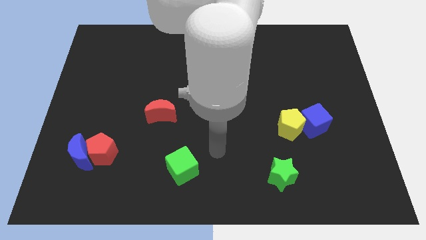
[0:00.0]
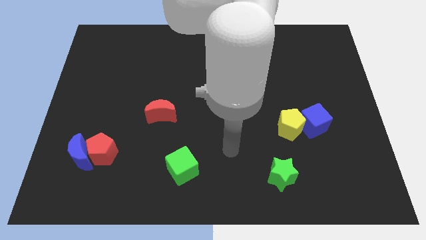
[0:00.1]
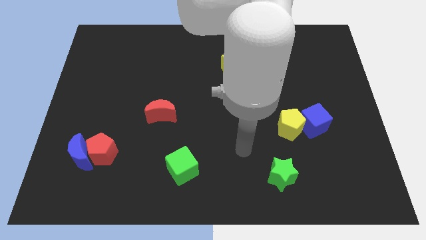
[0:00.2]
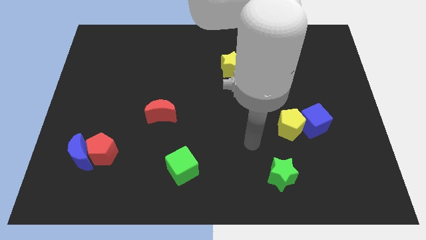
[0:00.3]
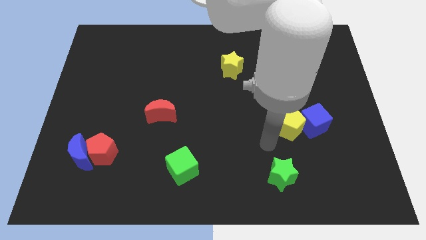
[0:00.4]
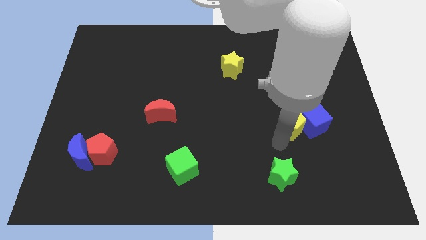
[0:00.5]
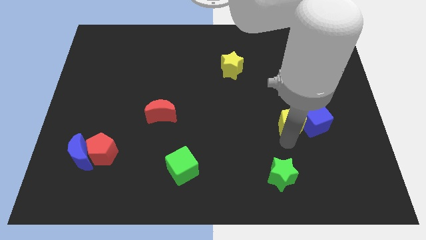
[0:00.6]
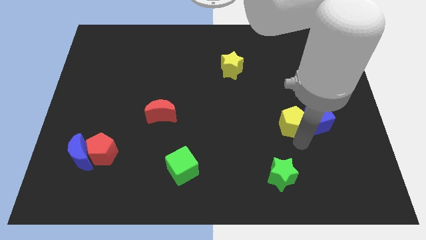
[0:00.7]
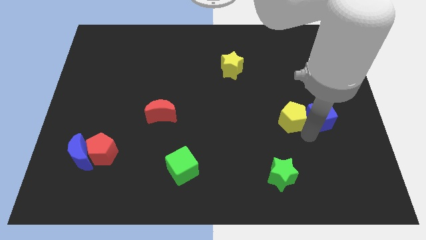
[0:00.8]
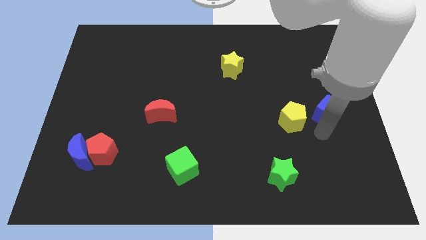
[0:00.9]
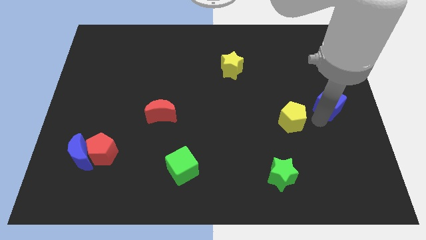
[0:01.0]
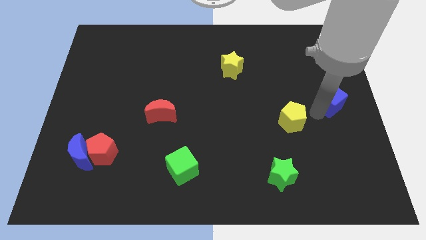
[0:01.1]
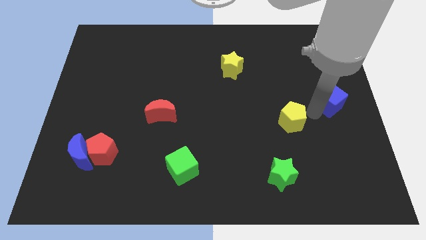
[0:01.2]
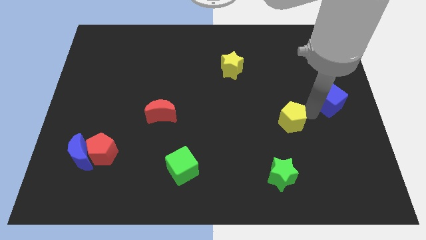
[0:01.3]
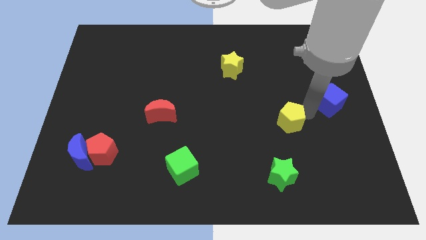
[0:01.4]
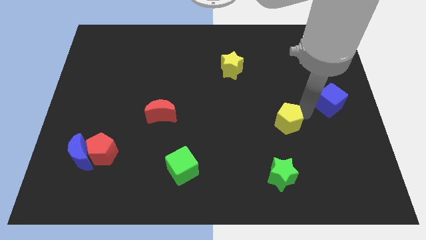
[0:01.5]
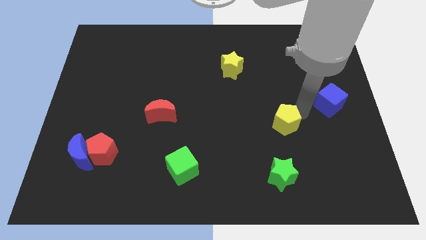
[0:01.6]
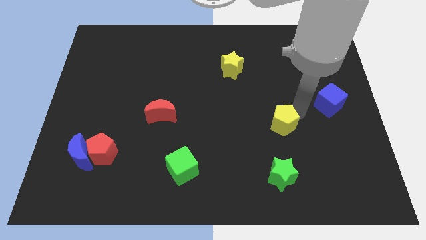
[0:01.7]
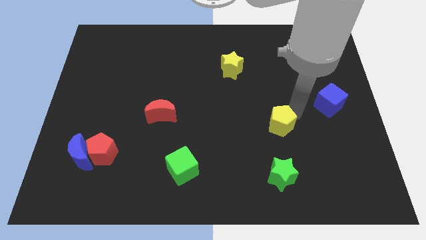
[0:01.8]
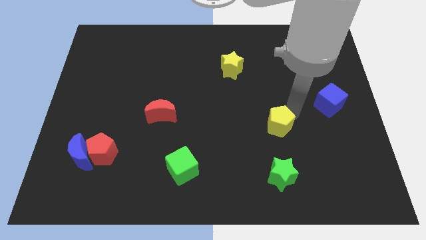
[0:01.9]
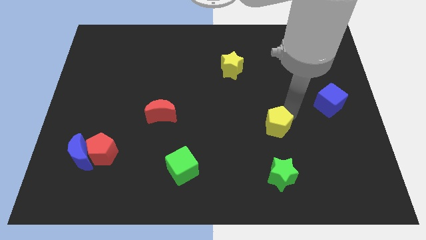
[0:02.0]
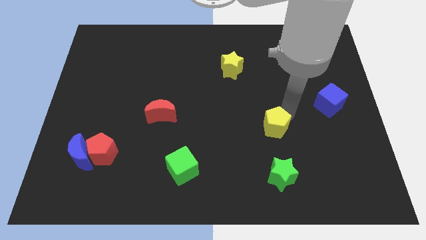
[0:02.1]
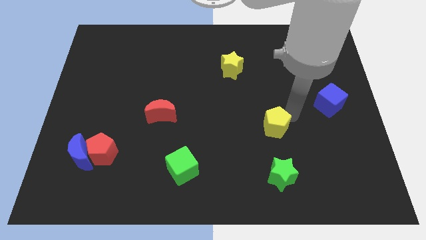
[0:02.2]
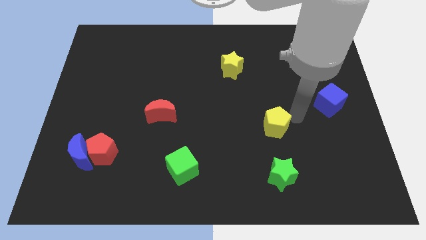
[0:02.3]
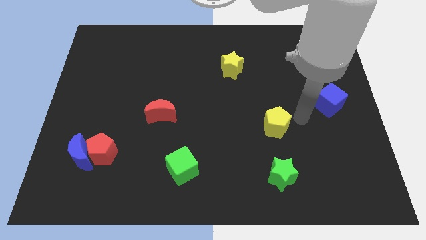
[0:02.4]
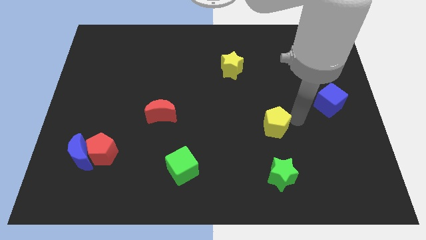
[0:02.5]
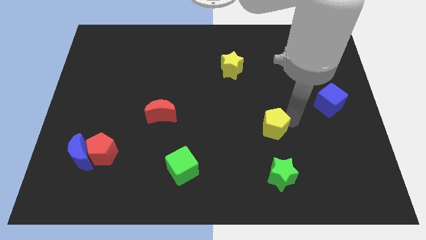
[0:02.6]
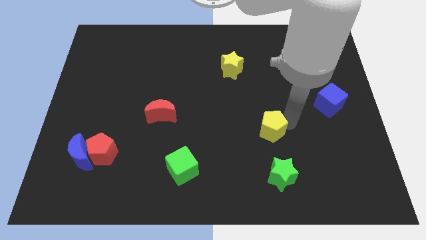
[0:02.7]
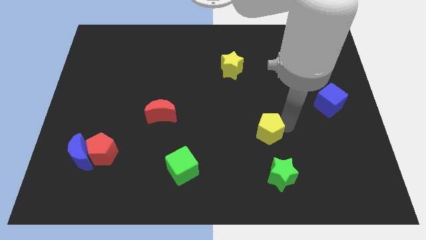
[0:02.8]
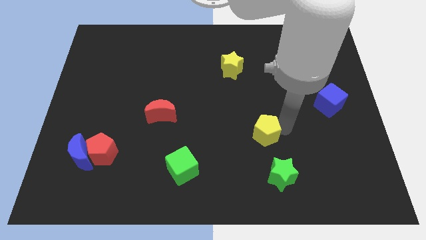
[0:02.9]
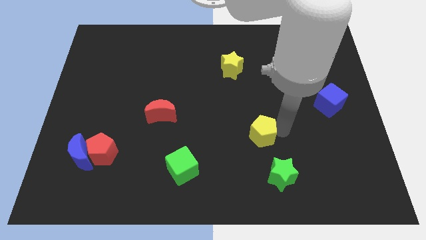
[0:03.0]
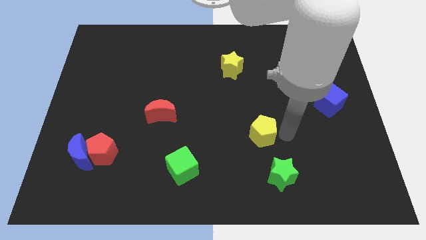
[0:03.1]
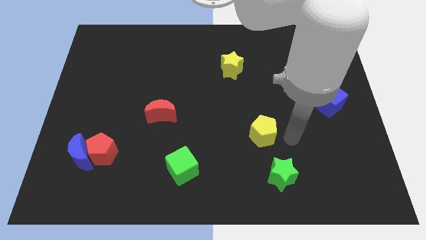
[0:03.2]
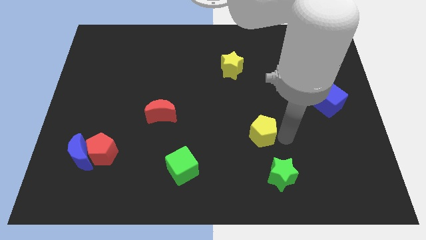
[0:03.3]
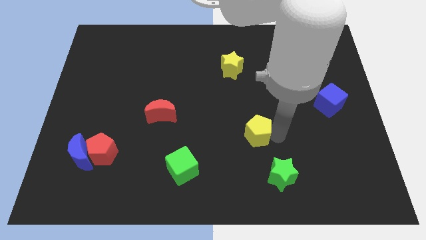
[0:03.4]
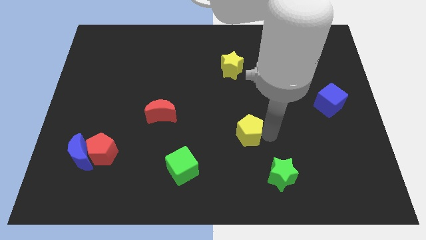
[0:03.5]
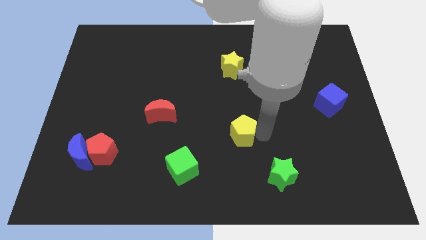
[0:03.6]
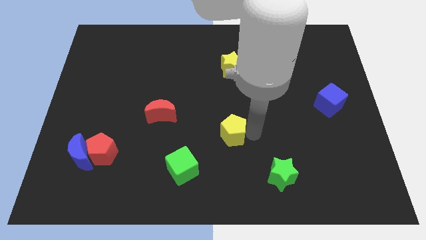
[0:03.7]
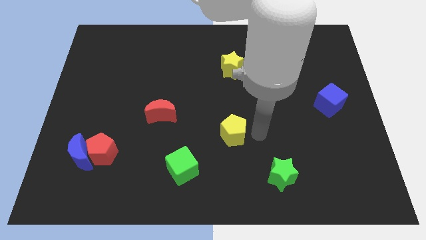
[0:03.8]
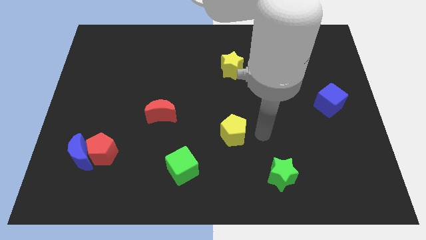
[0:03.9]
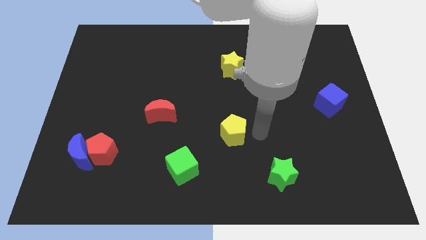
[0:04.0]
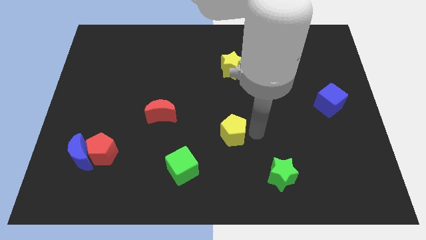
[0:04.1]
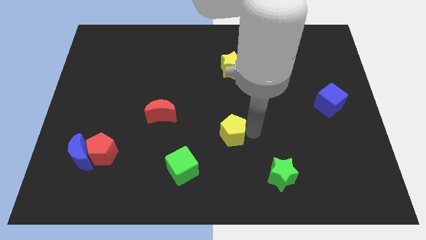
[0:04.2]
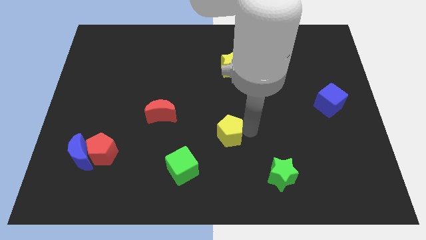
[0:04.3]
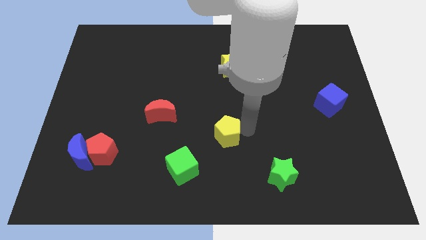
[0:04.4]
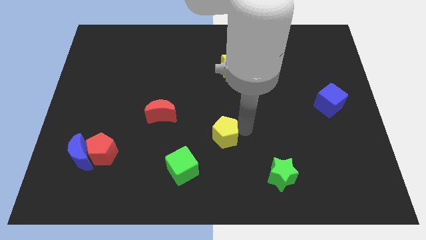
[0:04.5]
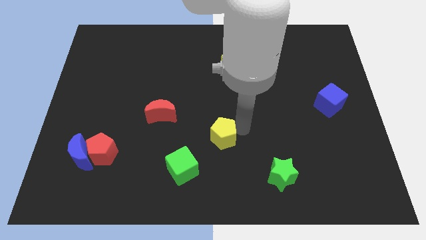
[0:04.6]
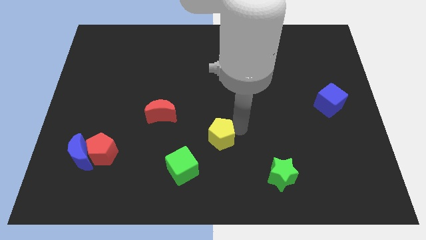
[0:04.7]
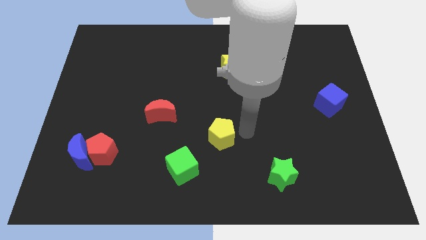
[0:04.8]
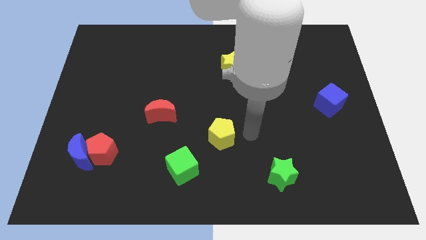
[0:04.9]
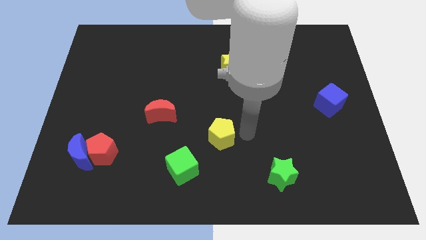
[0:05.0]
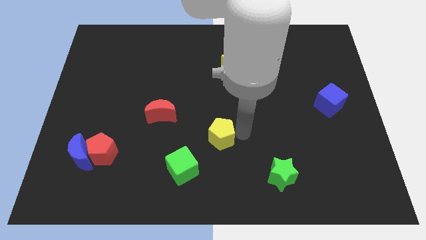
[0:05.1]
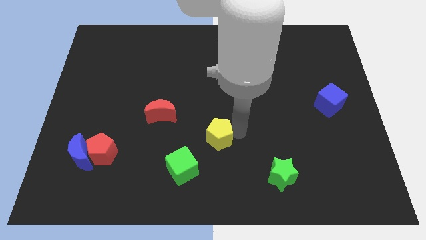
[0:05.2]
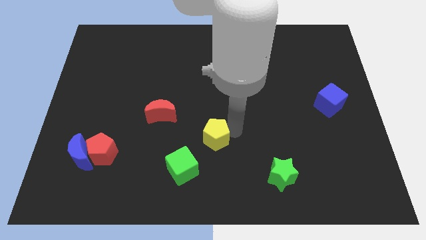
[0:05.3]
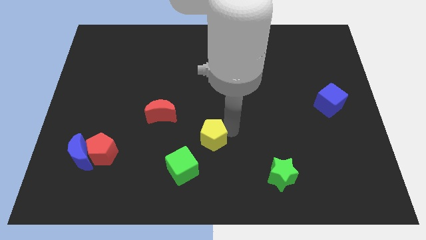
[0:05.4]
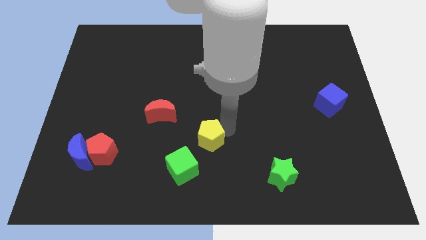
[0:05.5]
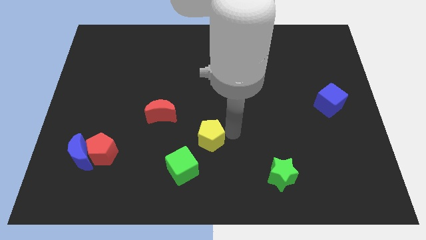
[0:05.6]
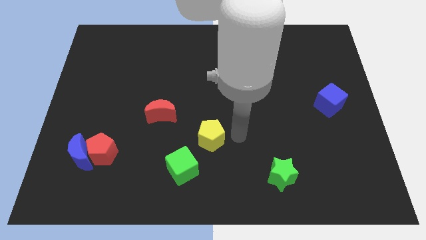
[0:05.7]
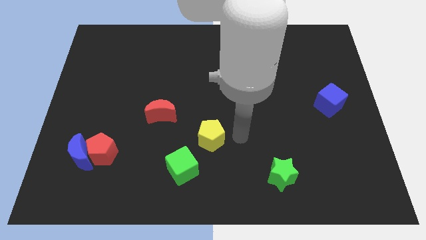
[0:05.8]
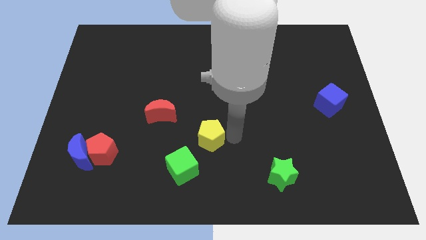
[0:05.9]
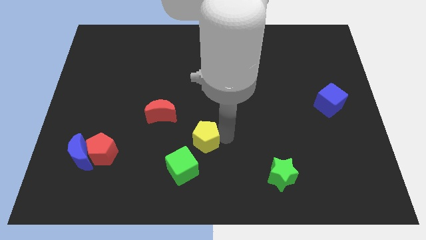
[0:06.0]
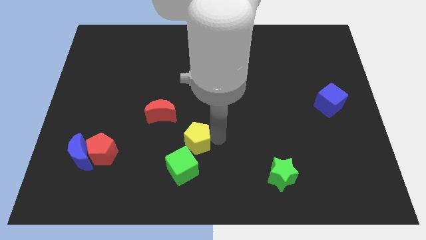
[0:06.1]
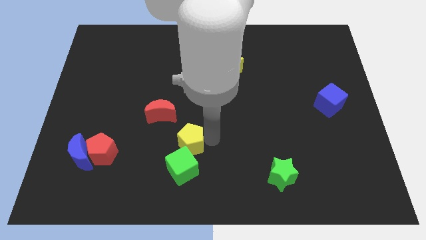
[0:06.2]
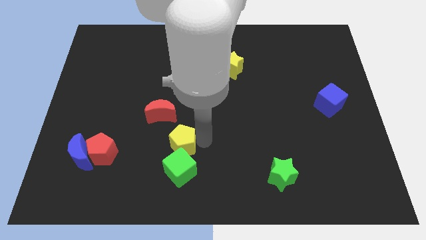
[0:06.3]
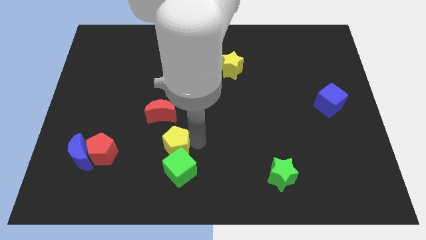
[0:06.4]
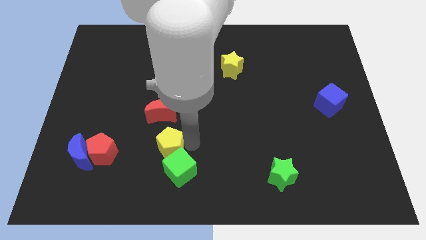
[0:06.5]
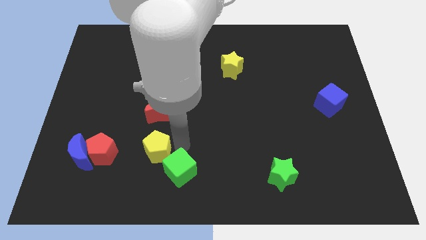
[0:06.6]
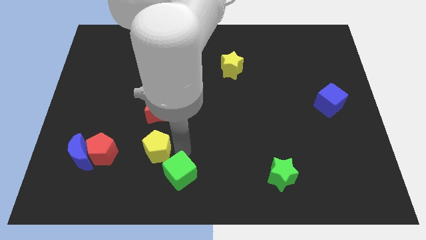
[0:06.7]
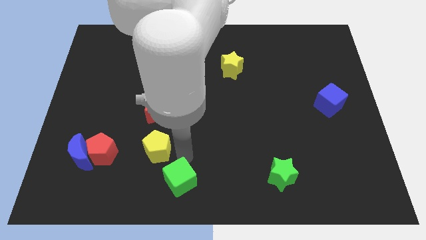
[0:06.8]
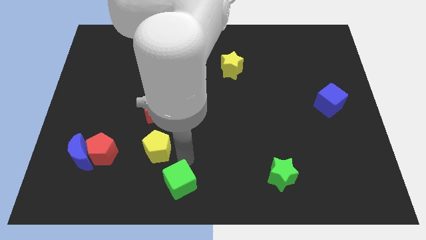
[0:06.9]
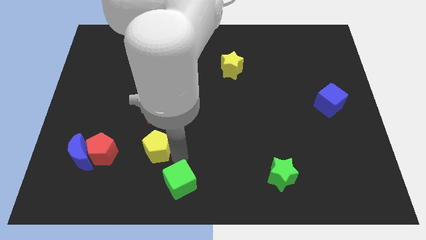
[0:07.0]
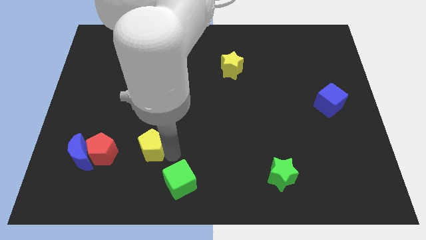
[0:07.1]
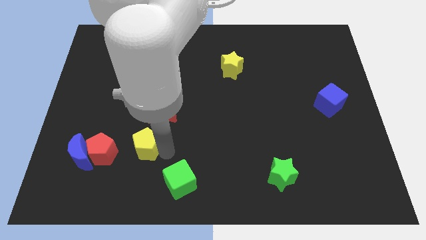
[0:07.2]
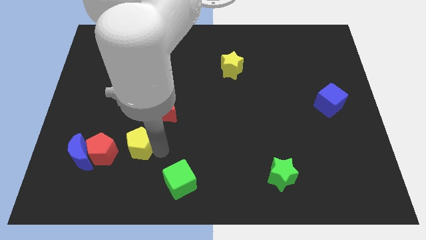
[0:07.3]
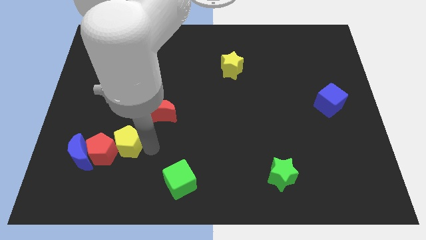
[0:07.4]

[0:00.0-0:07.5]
move the yellow pentagon diagonally up and to the right of the blue moon
